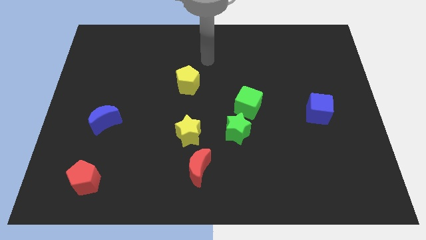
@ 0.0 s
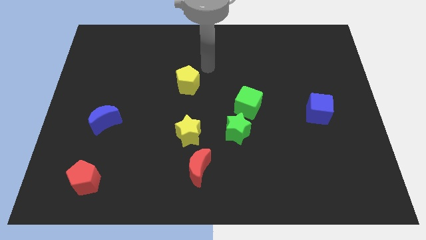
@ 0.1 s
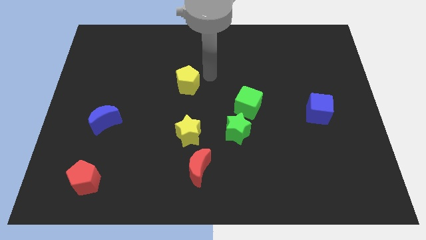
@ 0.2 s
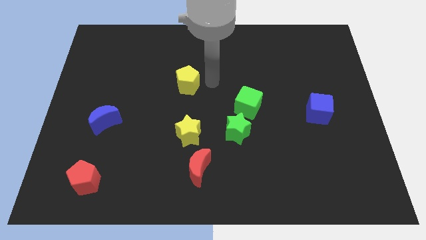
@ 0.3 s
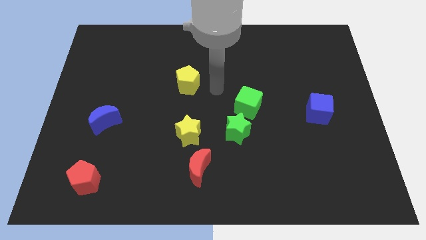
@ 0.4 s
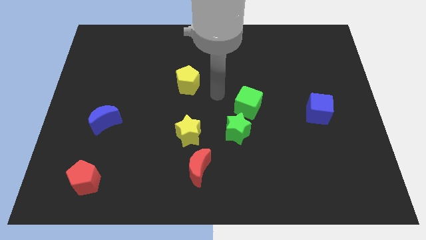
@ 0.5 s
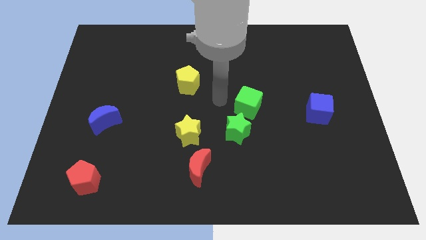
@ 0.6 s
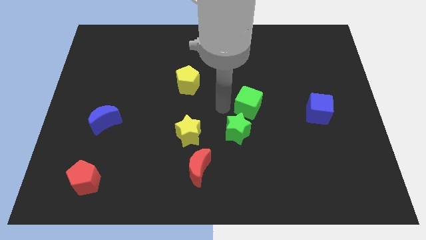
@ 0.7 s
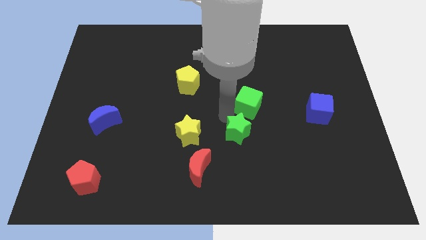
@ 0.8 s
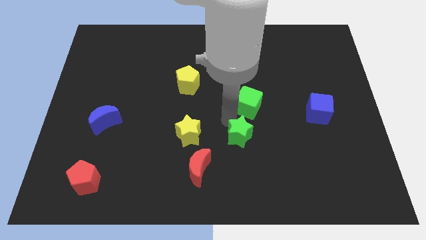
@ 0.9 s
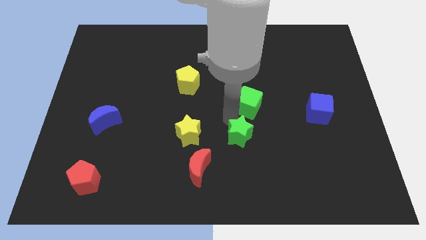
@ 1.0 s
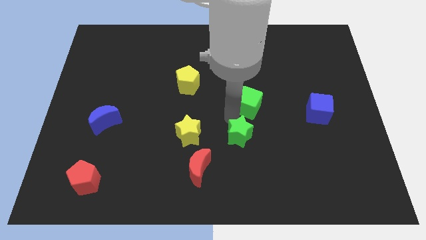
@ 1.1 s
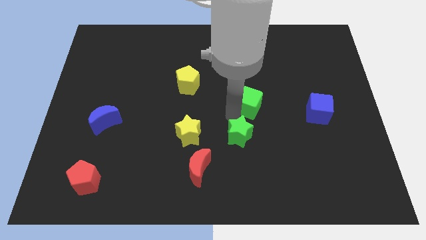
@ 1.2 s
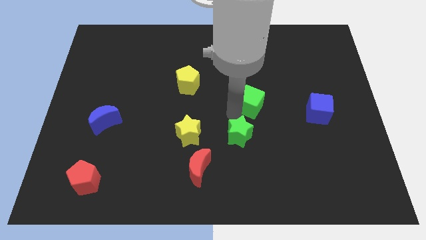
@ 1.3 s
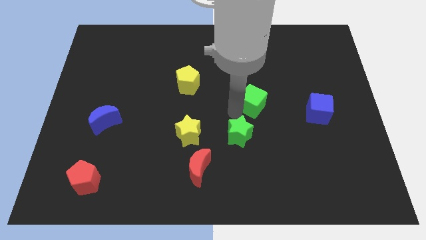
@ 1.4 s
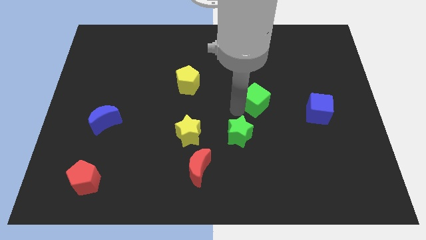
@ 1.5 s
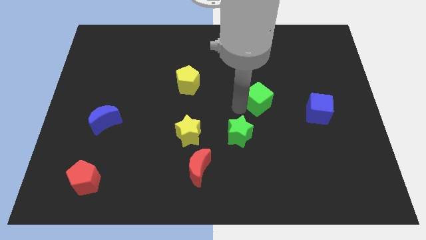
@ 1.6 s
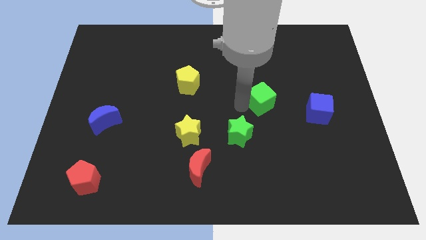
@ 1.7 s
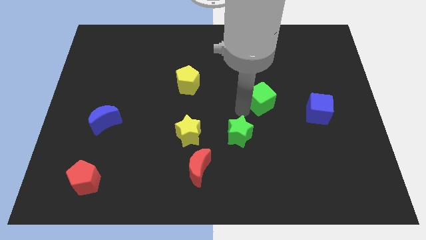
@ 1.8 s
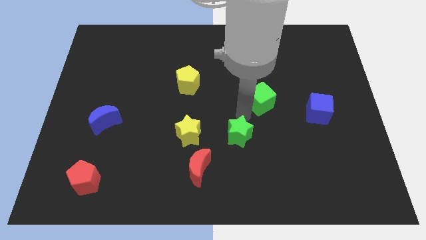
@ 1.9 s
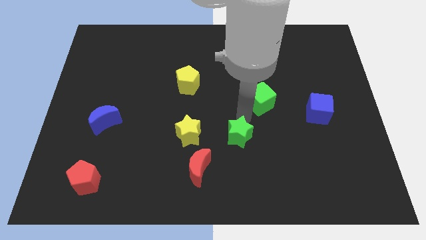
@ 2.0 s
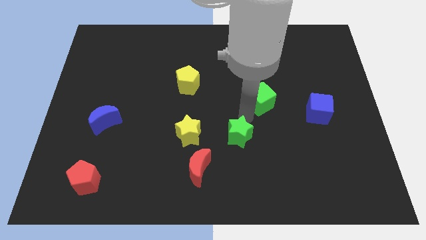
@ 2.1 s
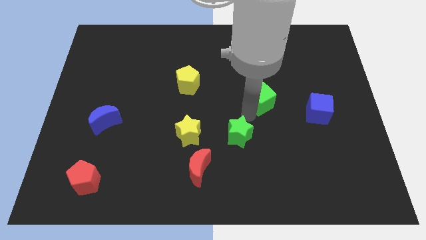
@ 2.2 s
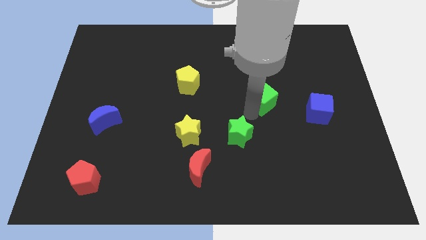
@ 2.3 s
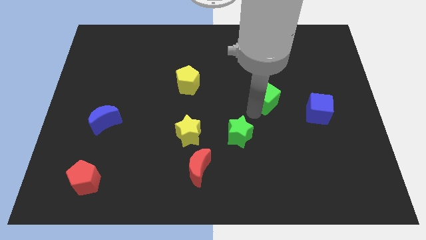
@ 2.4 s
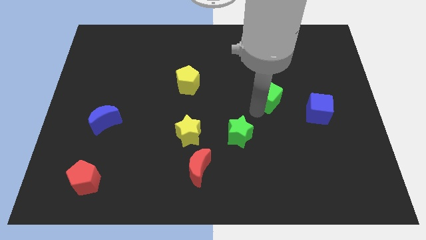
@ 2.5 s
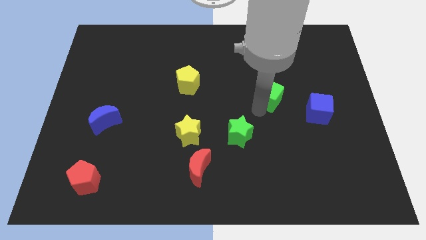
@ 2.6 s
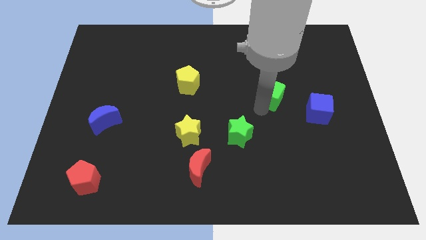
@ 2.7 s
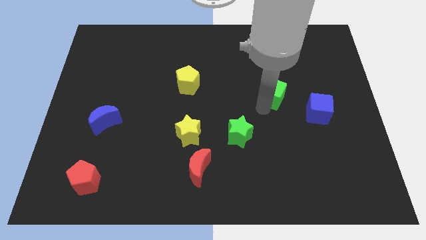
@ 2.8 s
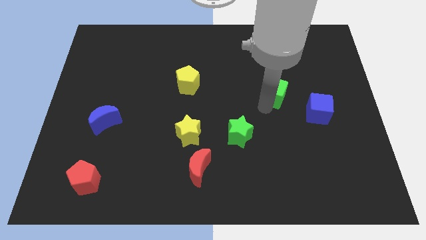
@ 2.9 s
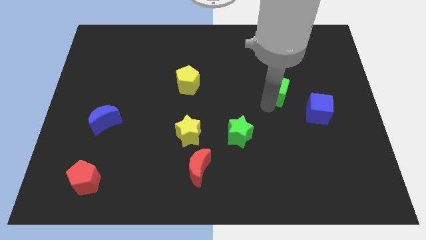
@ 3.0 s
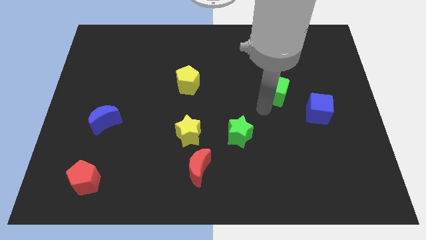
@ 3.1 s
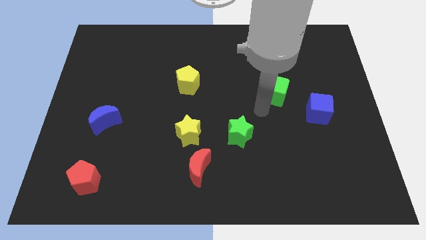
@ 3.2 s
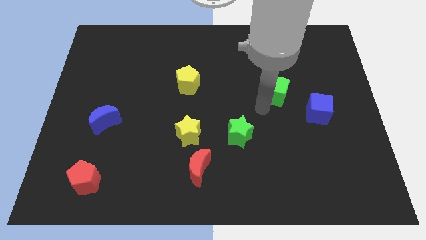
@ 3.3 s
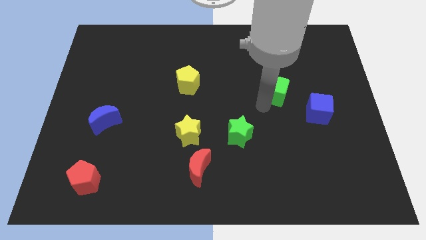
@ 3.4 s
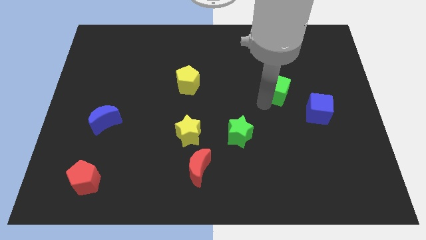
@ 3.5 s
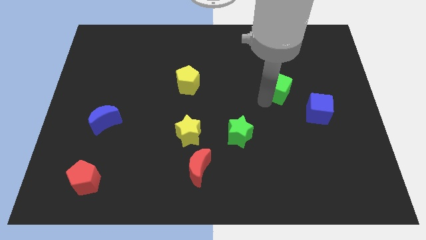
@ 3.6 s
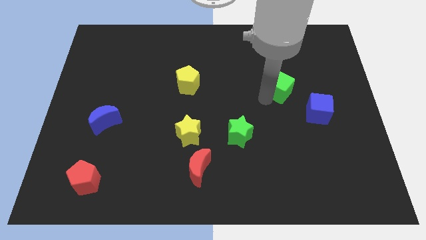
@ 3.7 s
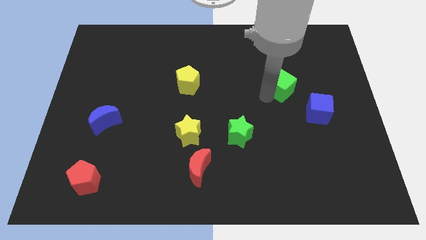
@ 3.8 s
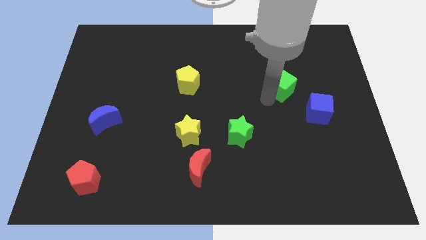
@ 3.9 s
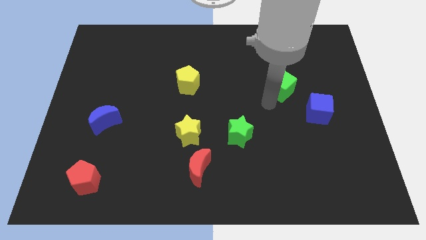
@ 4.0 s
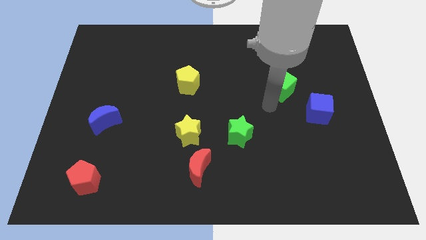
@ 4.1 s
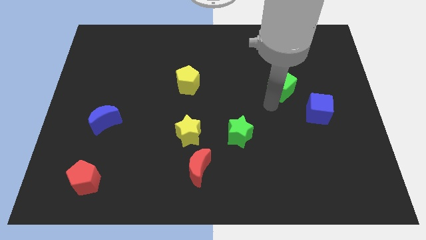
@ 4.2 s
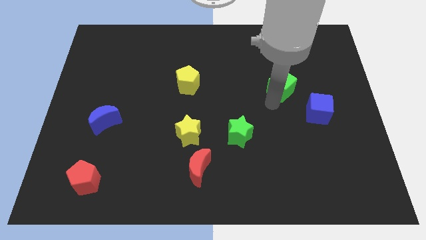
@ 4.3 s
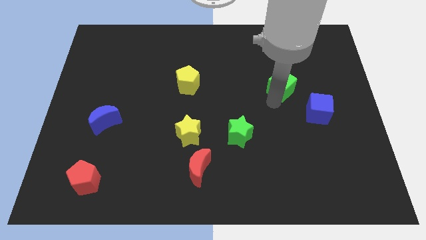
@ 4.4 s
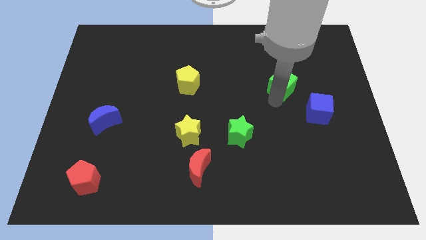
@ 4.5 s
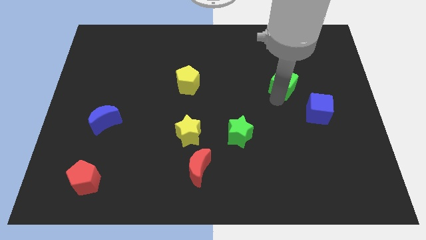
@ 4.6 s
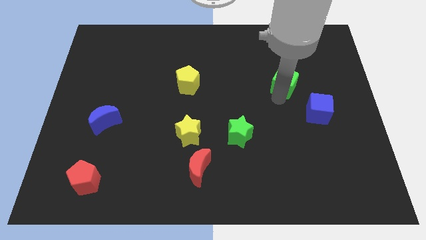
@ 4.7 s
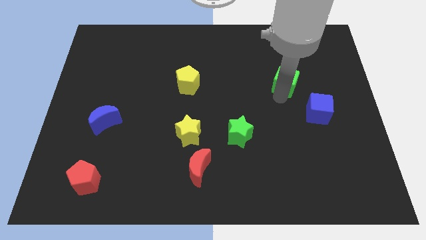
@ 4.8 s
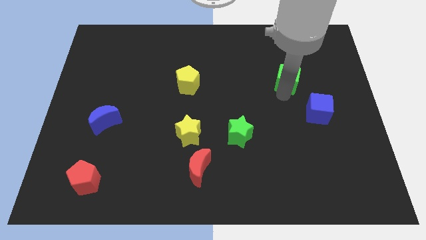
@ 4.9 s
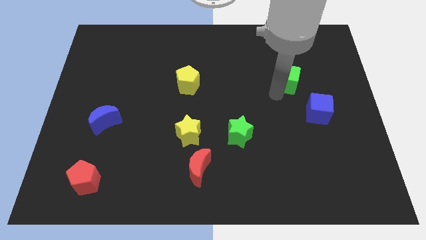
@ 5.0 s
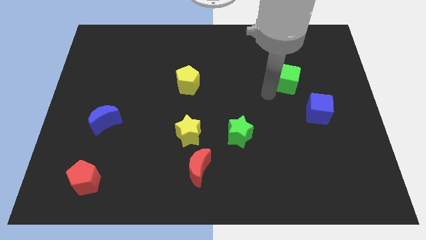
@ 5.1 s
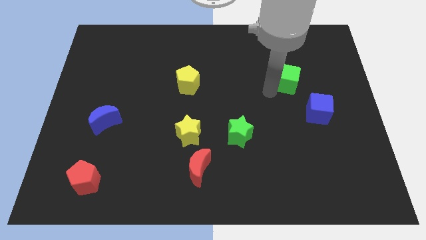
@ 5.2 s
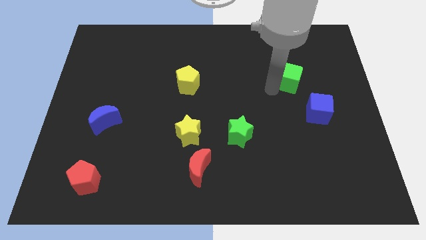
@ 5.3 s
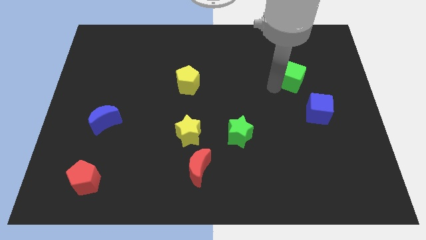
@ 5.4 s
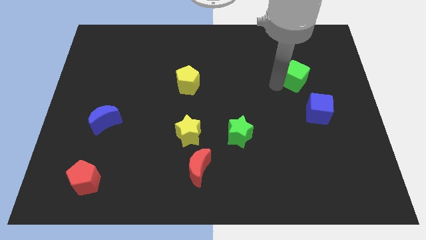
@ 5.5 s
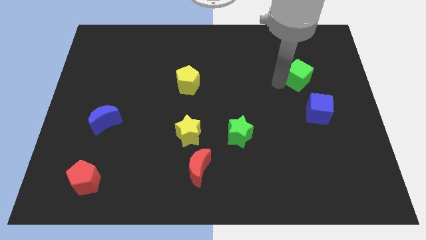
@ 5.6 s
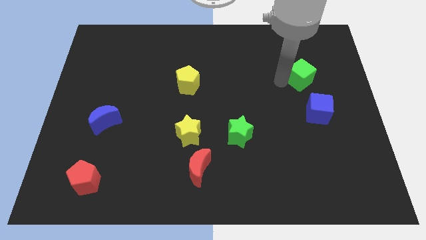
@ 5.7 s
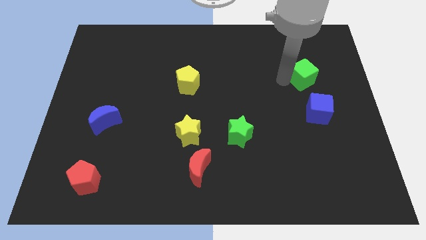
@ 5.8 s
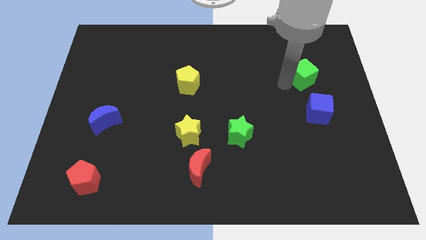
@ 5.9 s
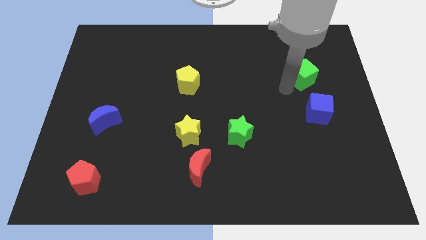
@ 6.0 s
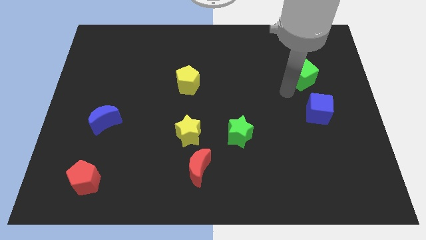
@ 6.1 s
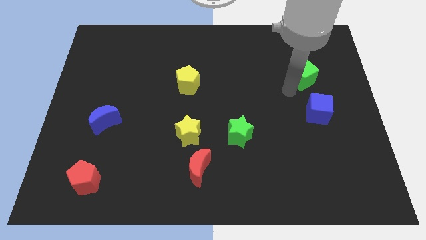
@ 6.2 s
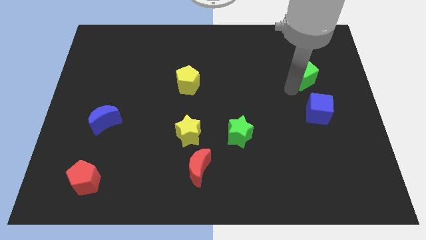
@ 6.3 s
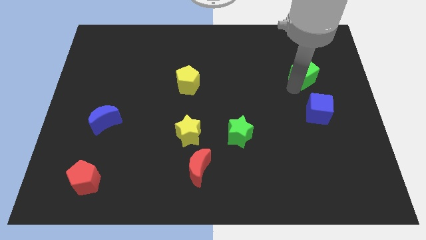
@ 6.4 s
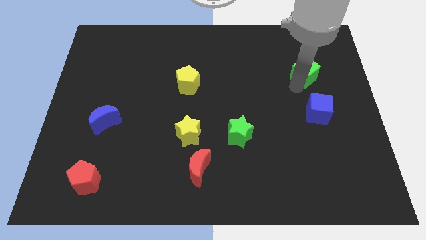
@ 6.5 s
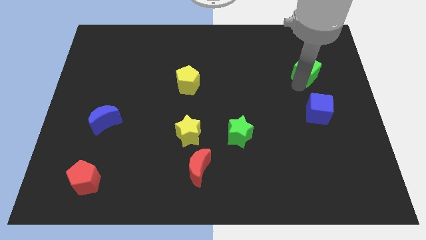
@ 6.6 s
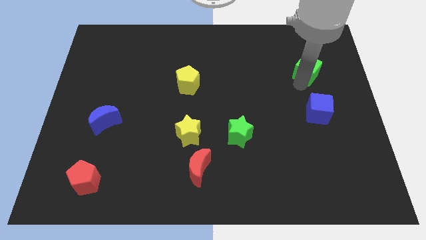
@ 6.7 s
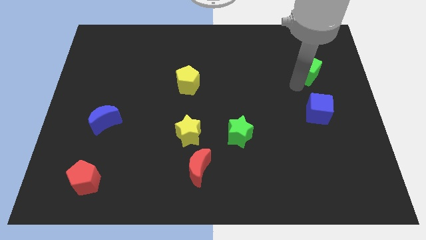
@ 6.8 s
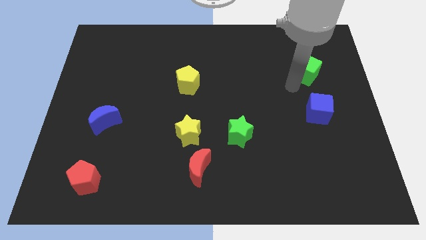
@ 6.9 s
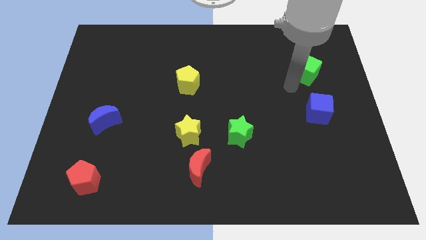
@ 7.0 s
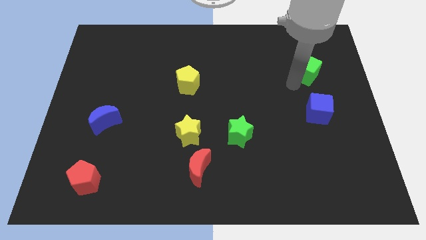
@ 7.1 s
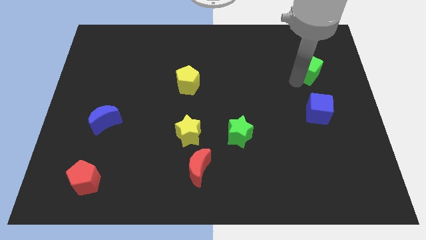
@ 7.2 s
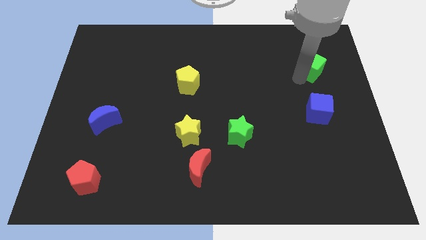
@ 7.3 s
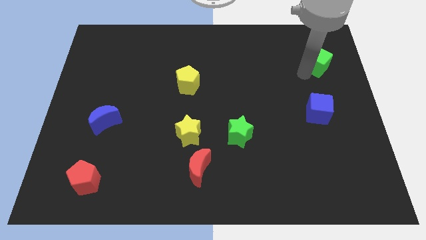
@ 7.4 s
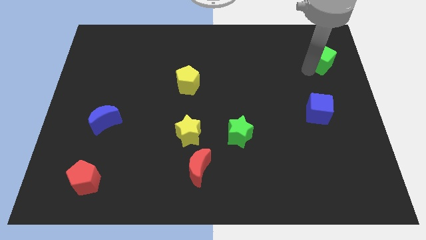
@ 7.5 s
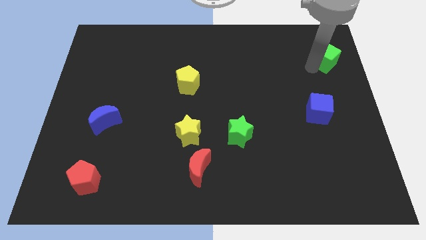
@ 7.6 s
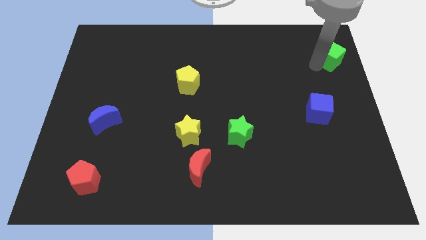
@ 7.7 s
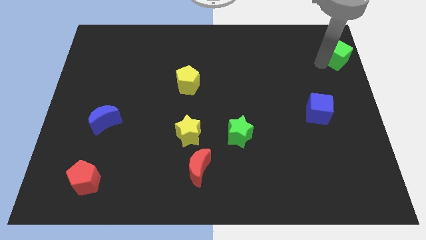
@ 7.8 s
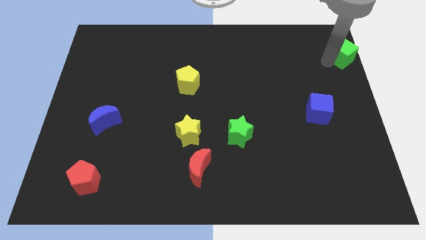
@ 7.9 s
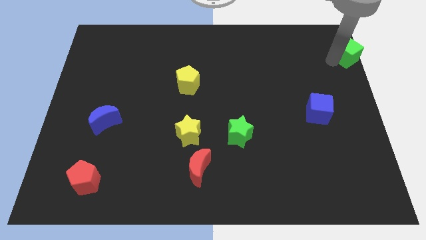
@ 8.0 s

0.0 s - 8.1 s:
put the green cube to the top right corner
